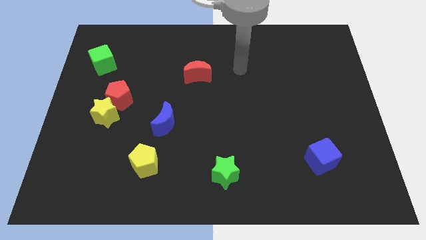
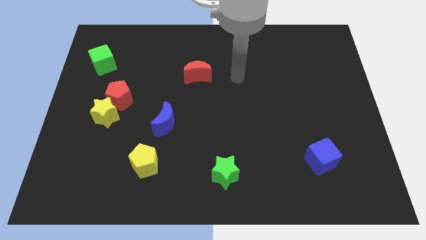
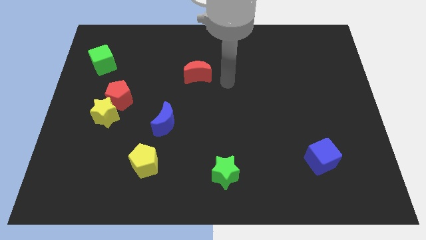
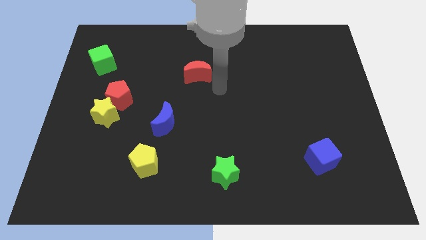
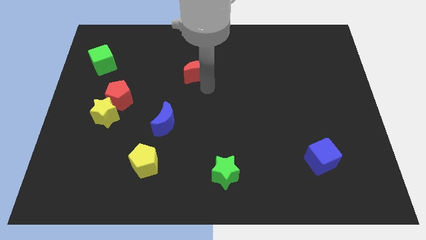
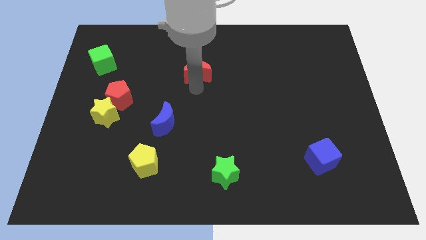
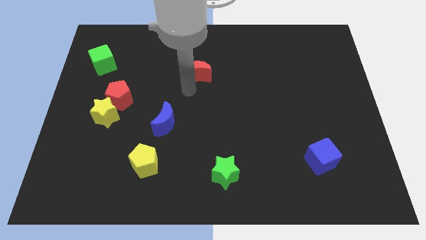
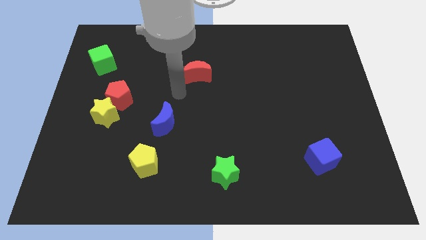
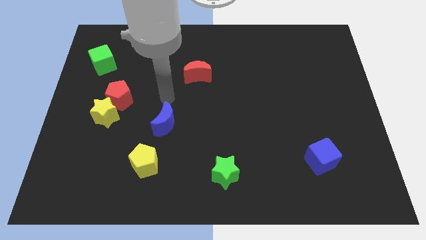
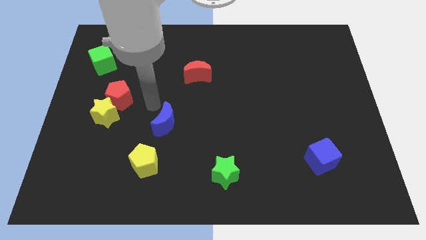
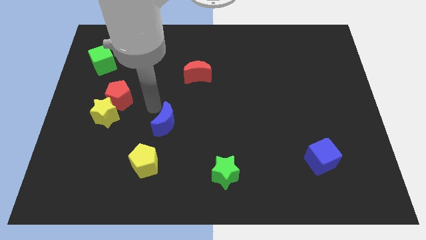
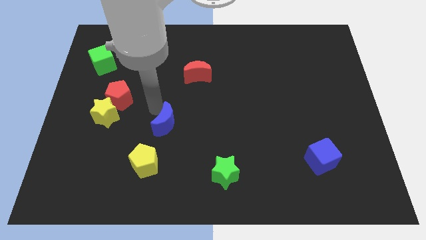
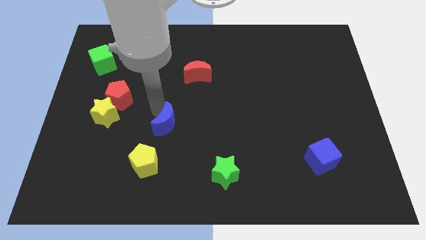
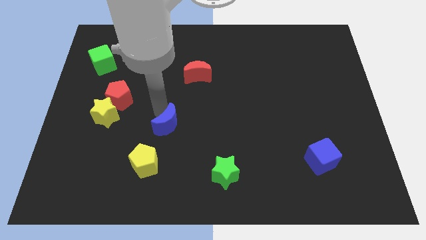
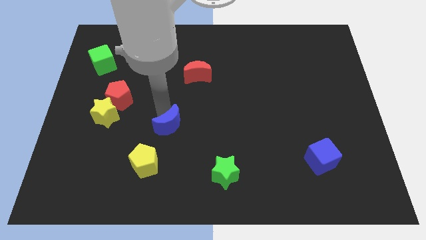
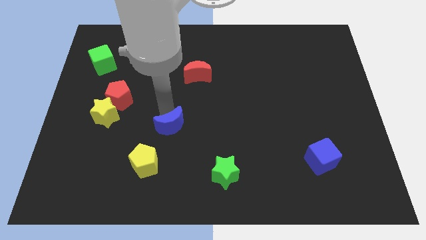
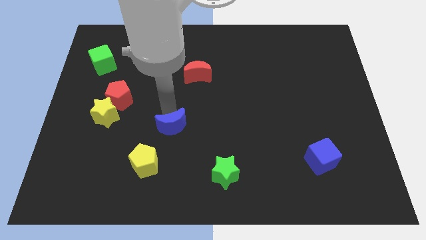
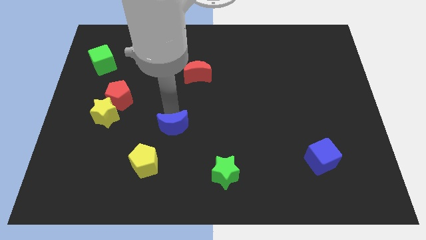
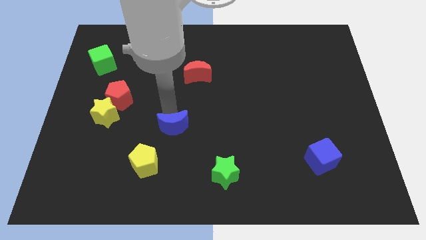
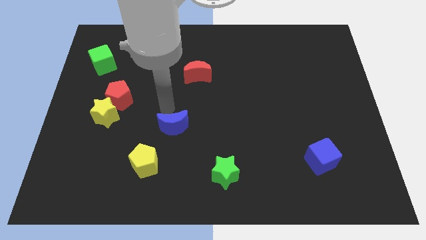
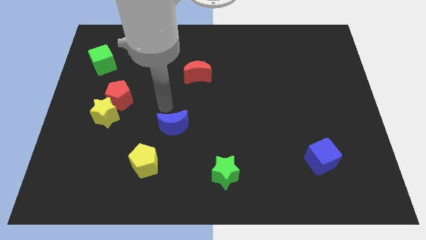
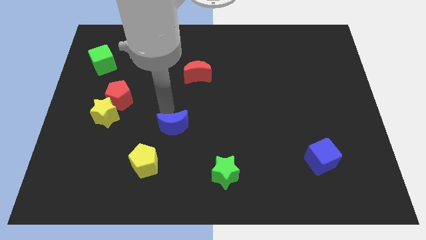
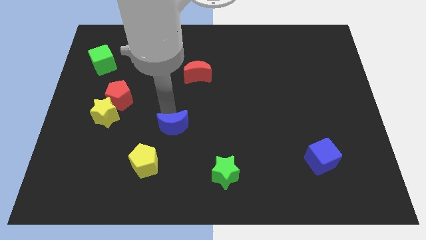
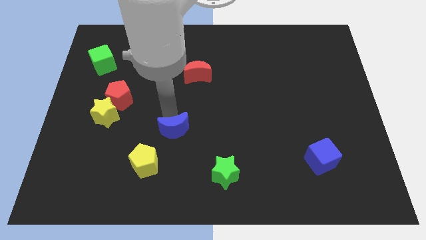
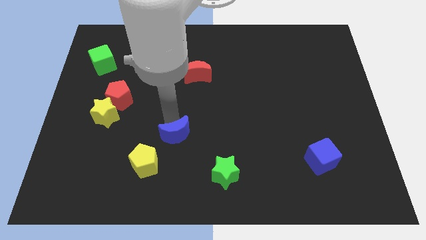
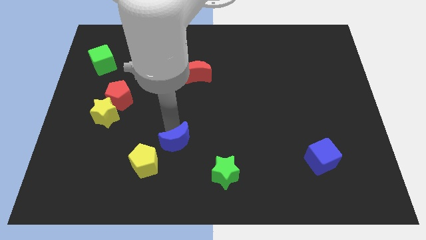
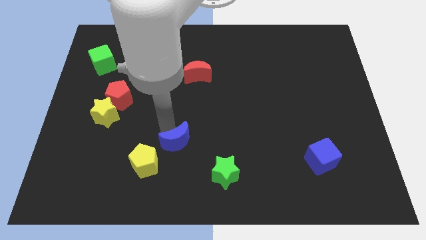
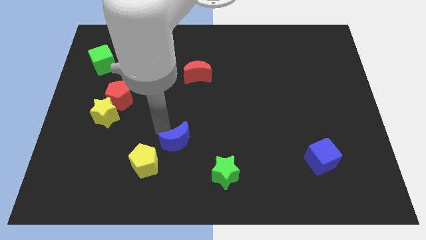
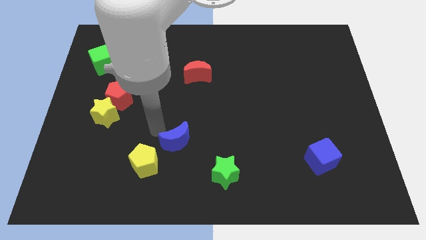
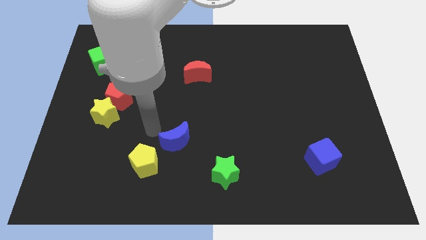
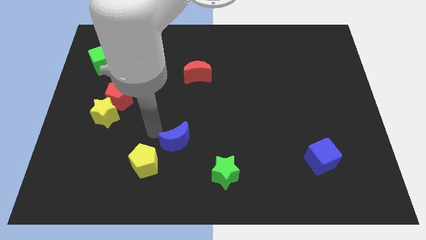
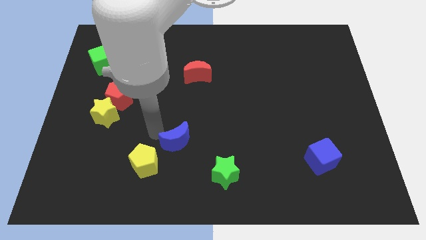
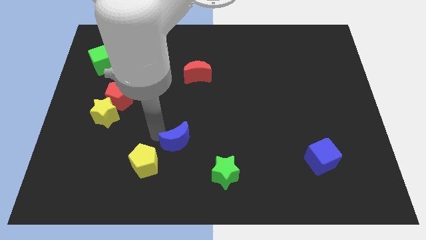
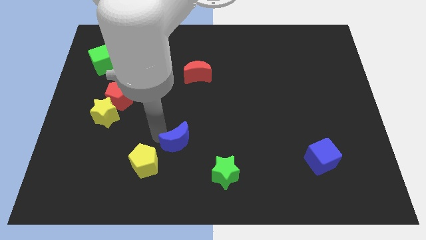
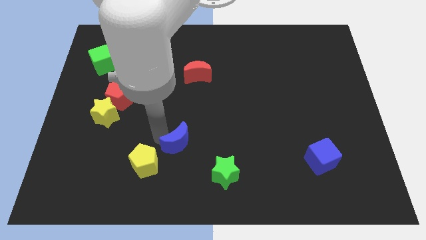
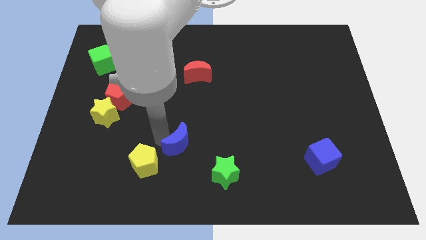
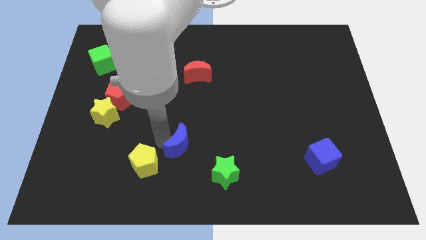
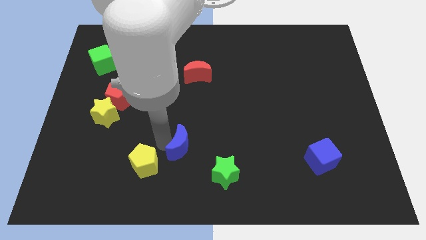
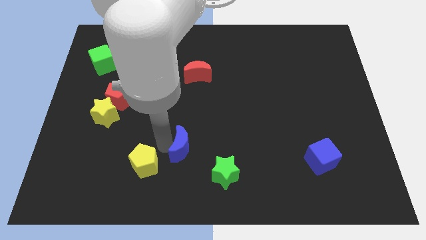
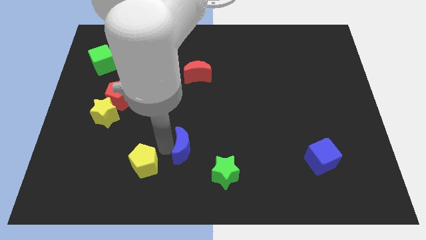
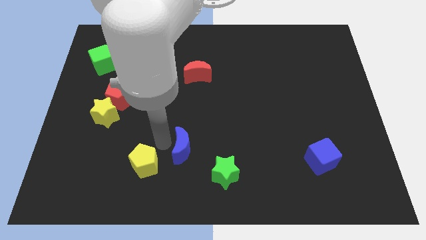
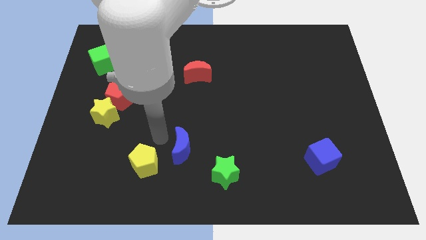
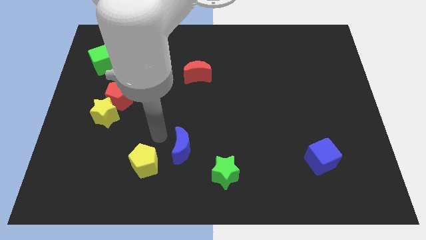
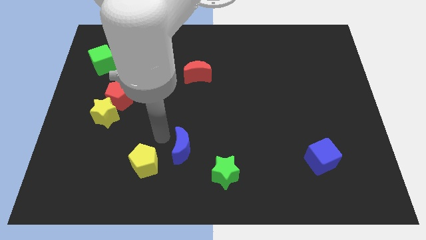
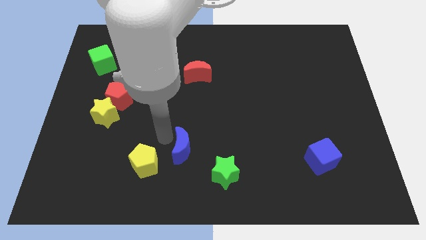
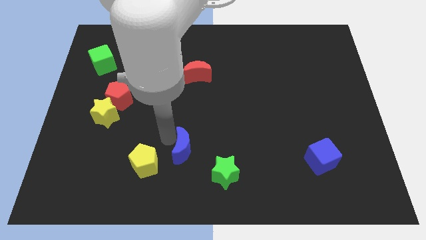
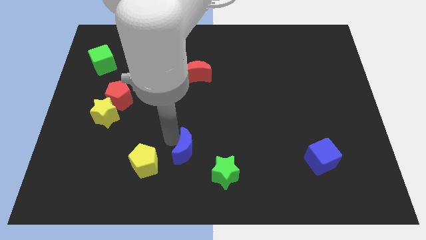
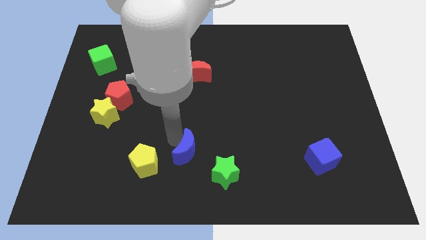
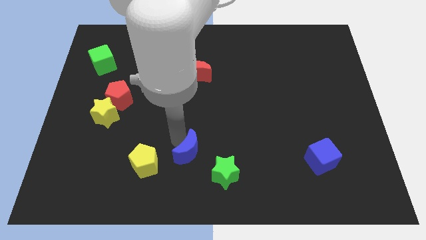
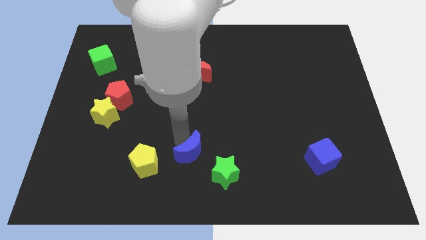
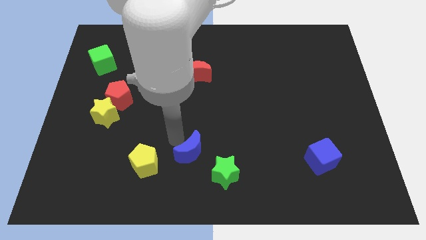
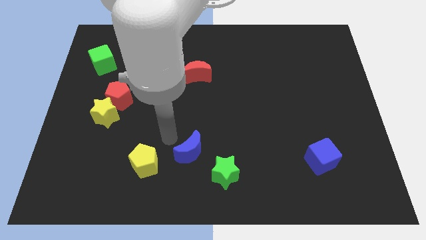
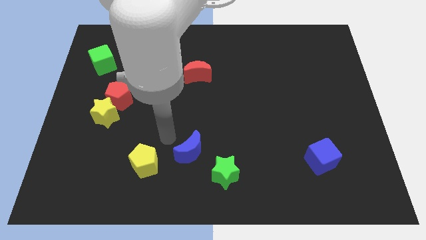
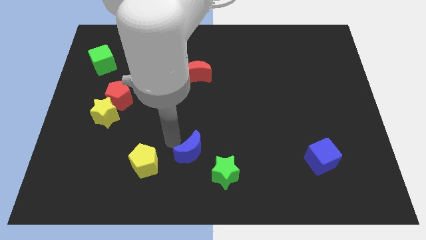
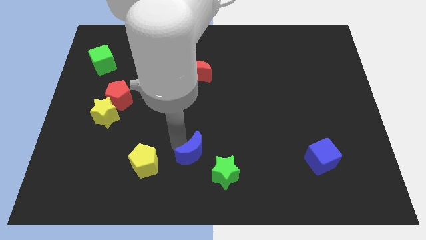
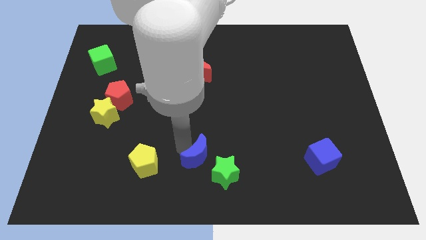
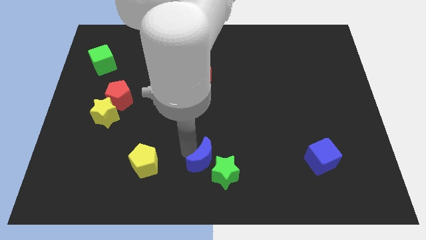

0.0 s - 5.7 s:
slide the blue moon to the green star
